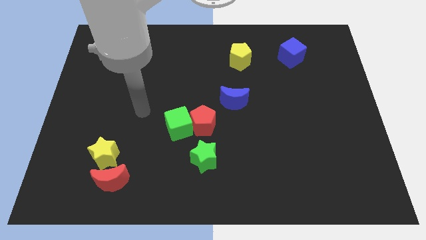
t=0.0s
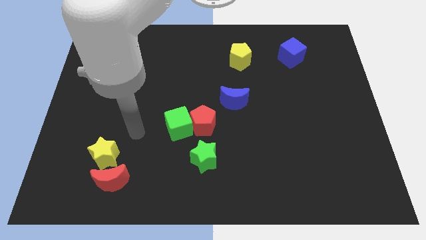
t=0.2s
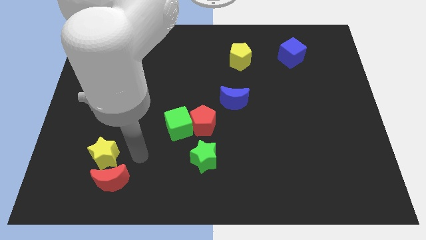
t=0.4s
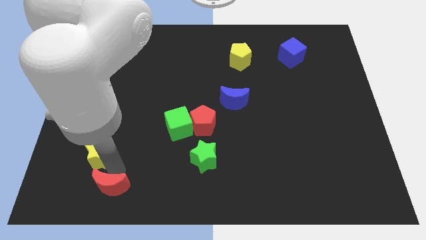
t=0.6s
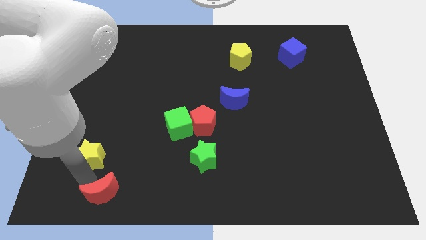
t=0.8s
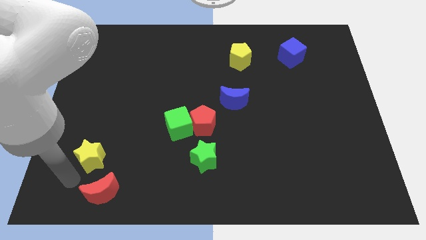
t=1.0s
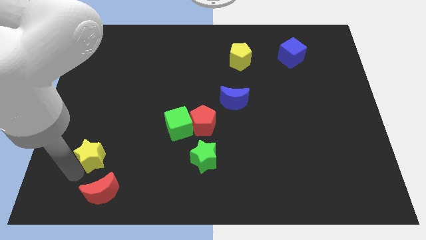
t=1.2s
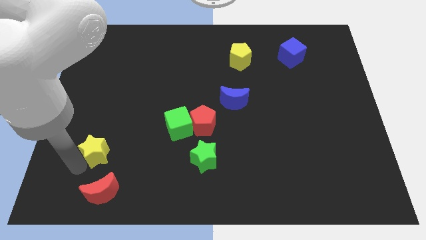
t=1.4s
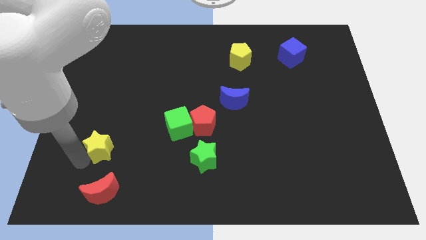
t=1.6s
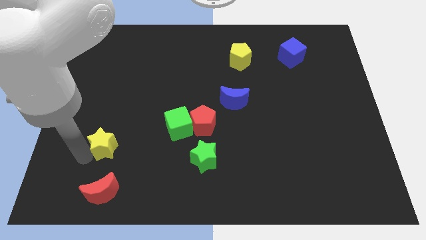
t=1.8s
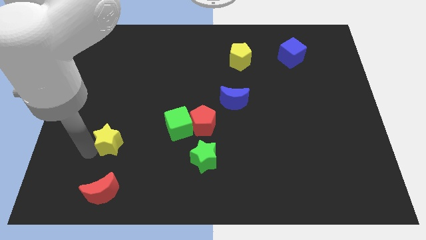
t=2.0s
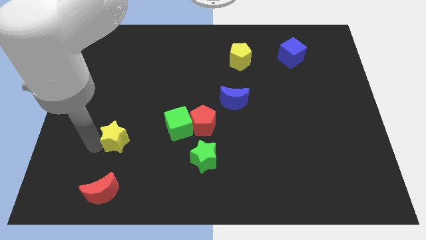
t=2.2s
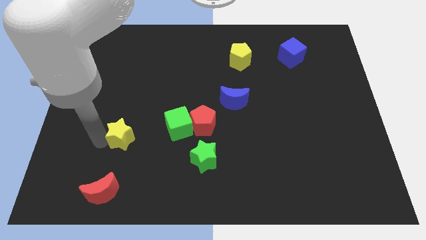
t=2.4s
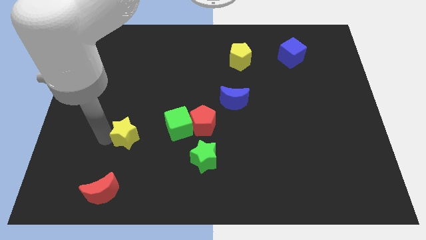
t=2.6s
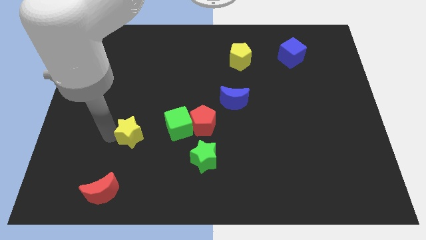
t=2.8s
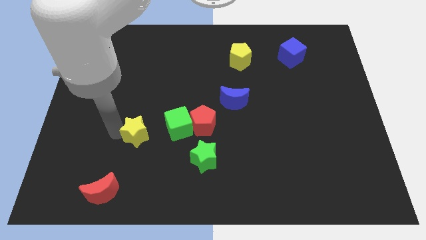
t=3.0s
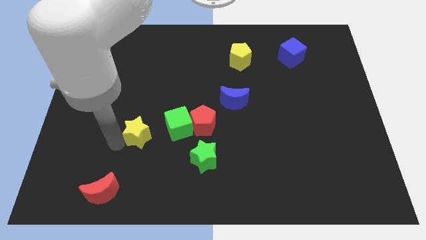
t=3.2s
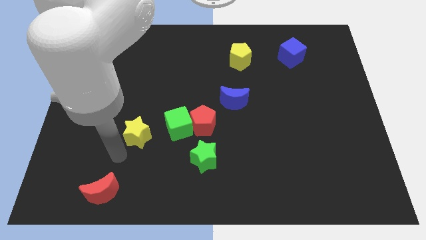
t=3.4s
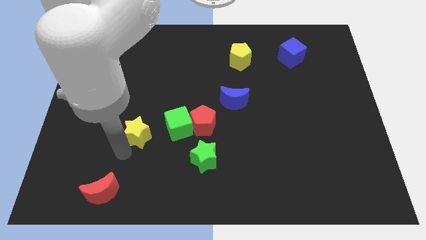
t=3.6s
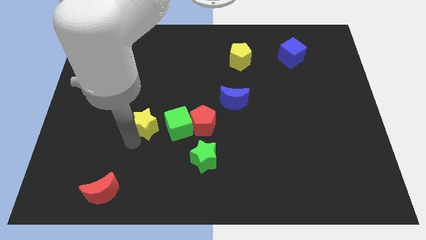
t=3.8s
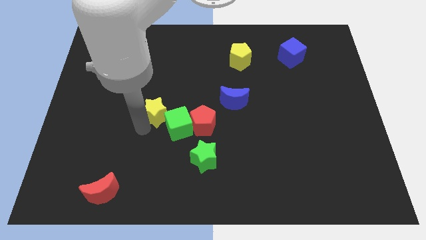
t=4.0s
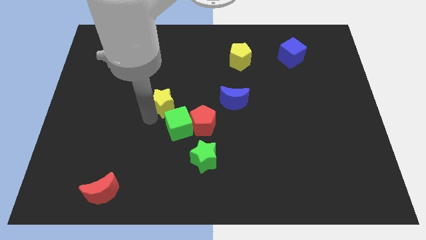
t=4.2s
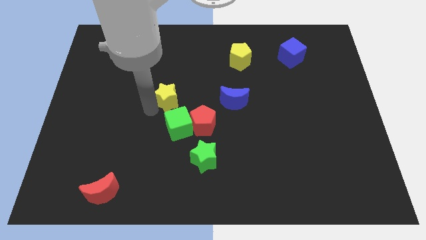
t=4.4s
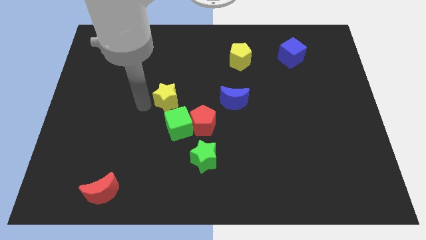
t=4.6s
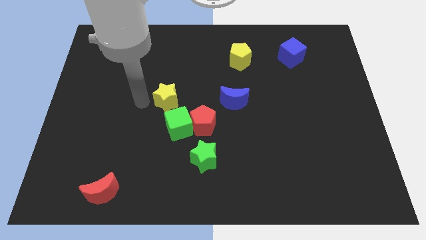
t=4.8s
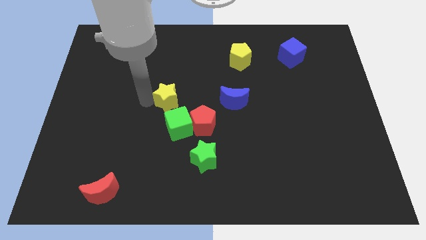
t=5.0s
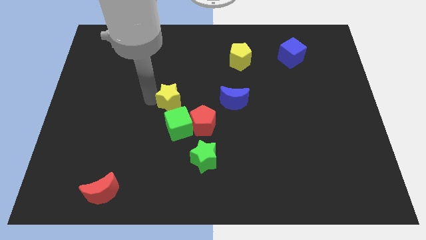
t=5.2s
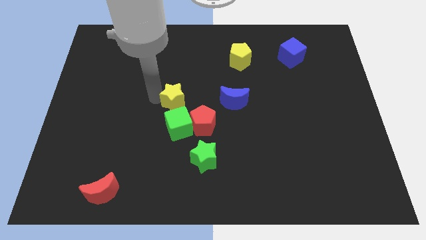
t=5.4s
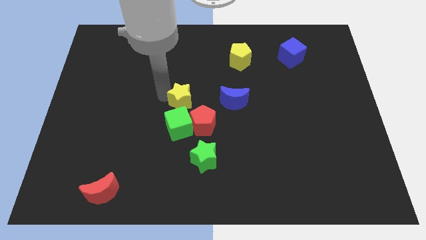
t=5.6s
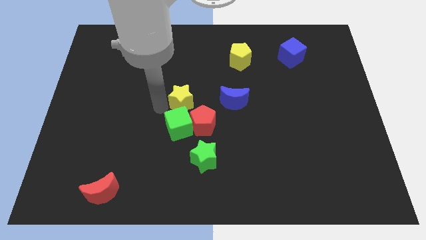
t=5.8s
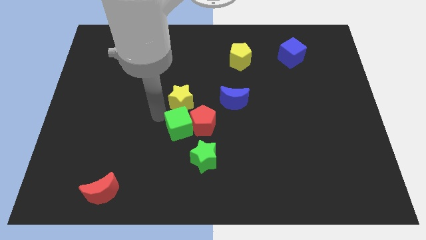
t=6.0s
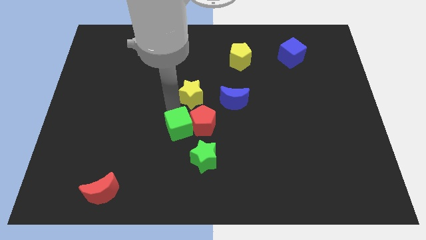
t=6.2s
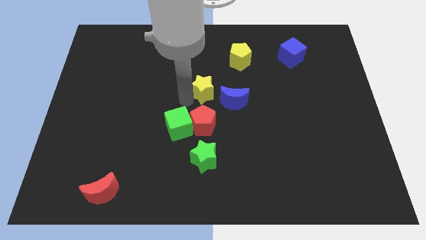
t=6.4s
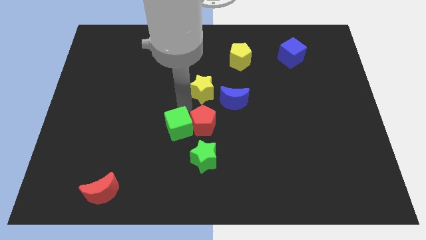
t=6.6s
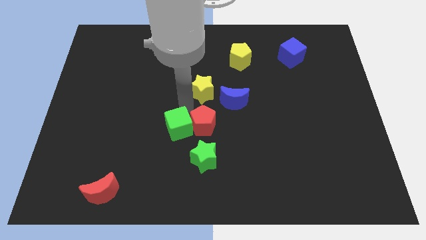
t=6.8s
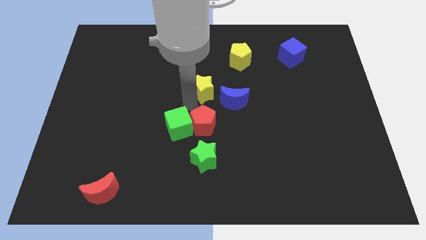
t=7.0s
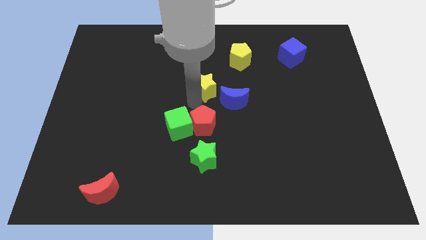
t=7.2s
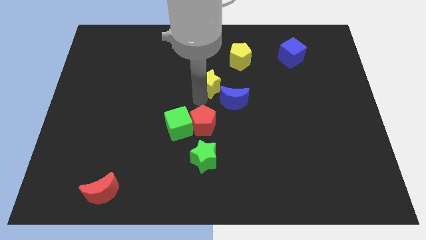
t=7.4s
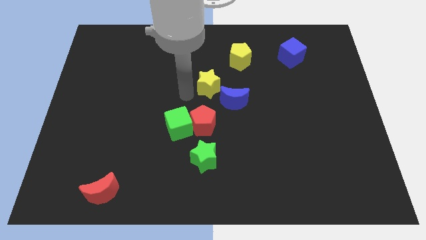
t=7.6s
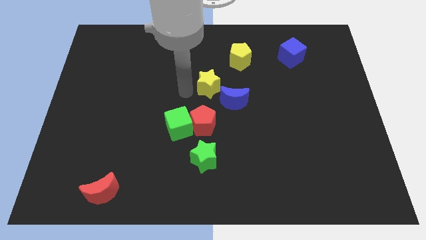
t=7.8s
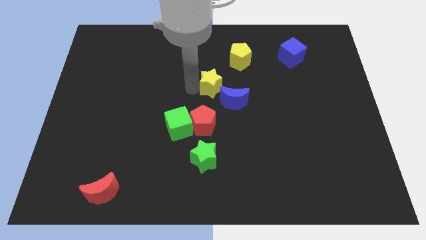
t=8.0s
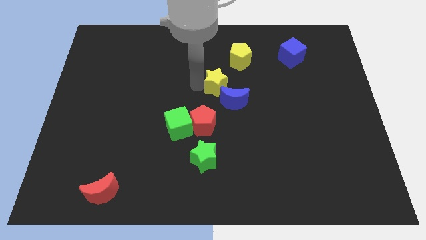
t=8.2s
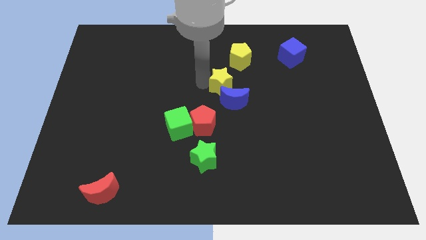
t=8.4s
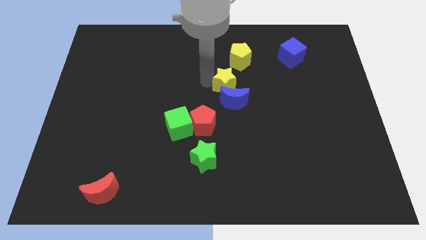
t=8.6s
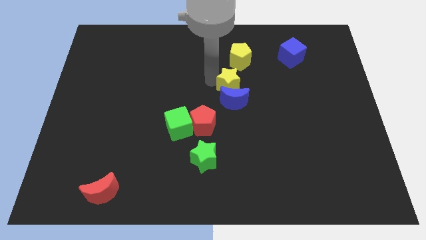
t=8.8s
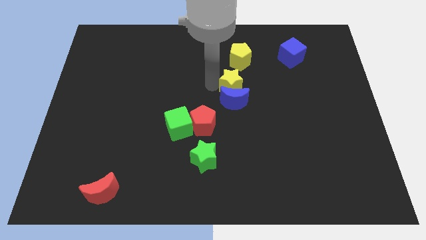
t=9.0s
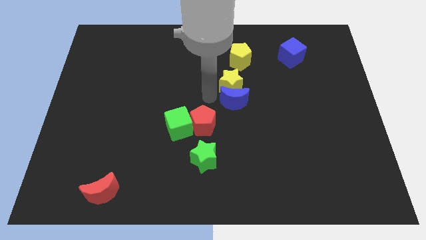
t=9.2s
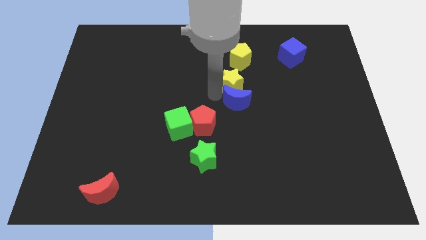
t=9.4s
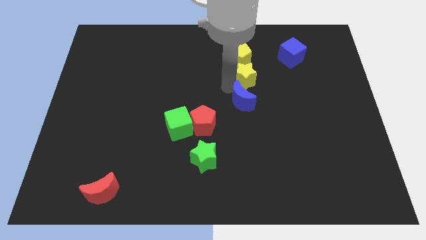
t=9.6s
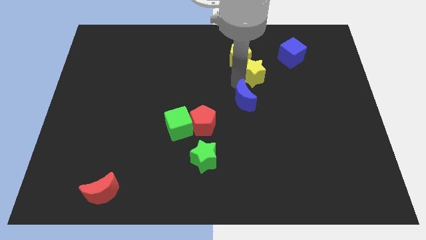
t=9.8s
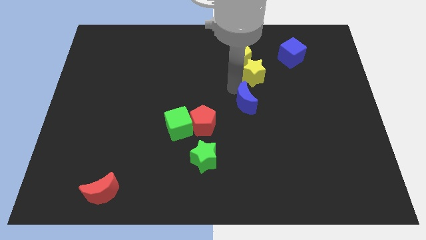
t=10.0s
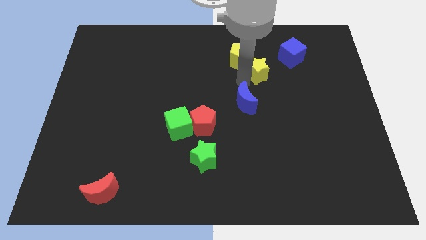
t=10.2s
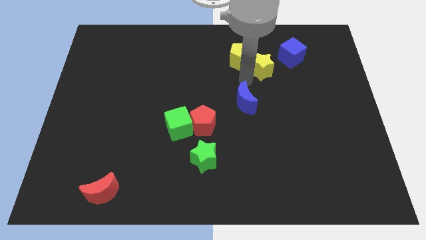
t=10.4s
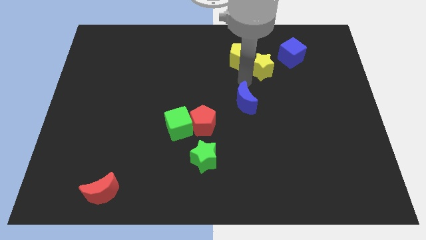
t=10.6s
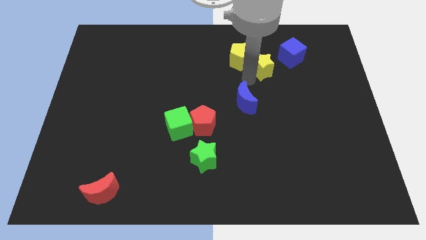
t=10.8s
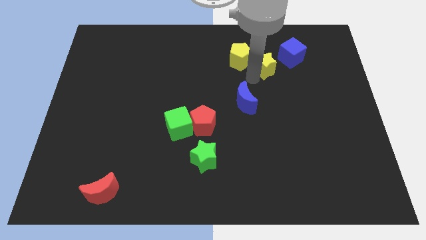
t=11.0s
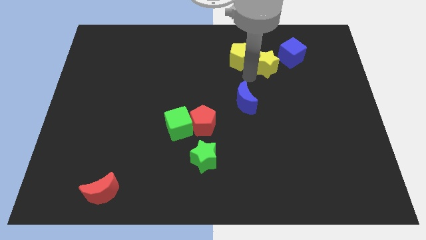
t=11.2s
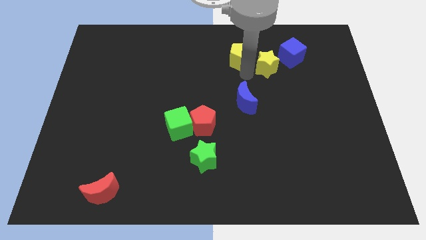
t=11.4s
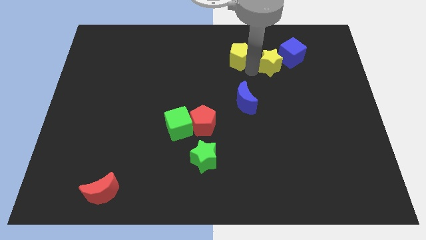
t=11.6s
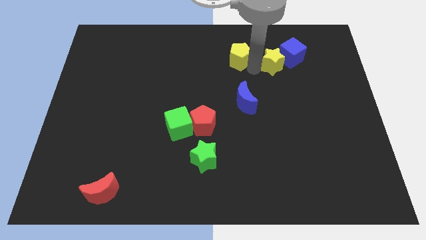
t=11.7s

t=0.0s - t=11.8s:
slide the yellow star towards the blue cube

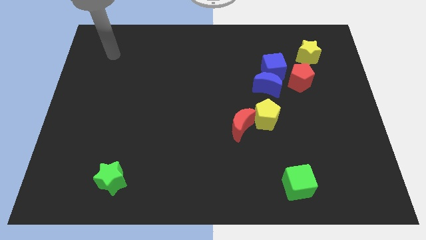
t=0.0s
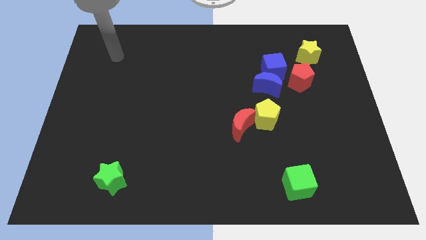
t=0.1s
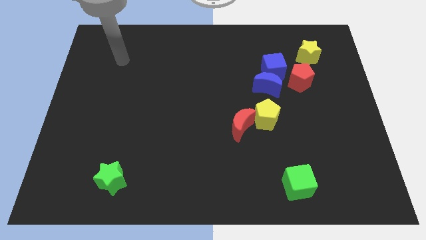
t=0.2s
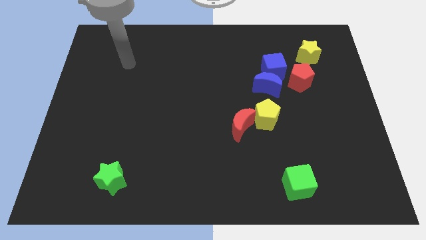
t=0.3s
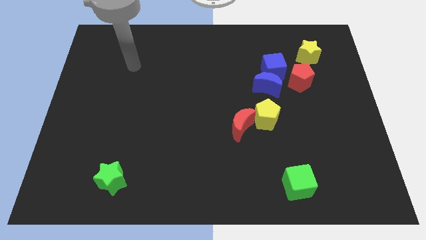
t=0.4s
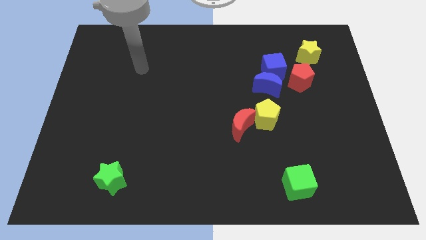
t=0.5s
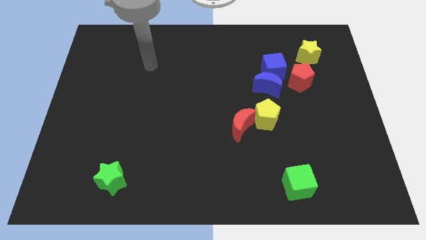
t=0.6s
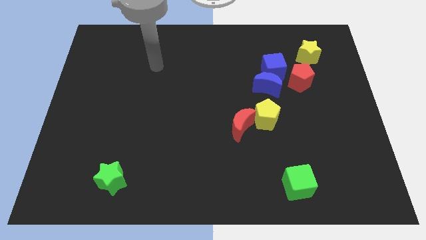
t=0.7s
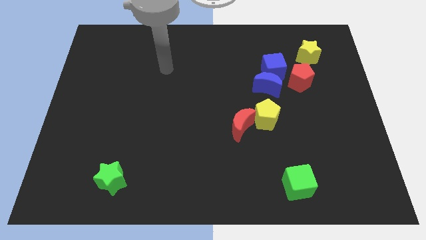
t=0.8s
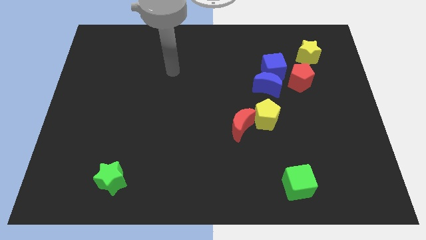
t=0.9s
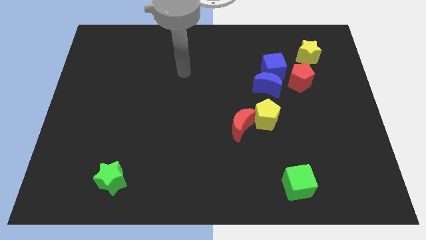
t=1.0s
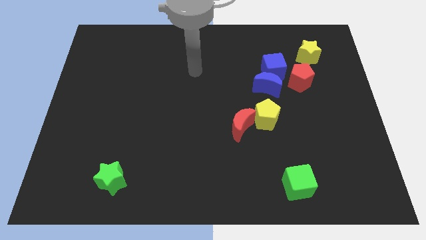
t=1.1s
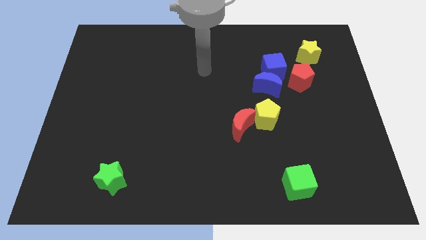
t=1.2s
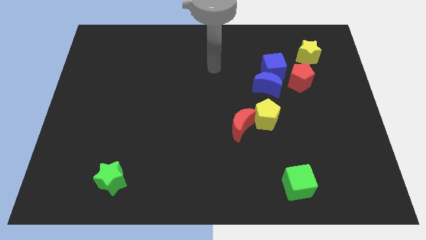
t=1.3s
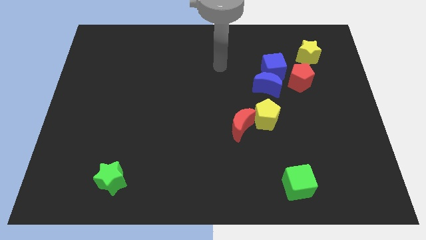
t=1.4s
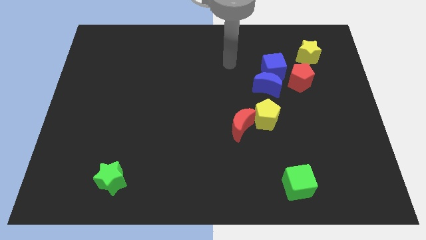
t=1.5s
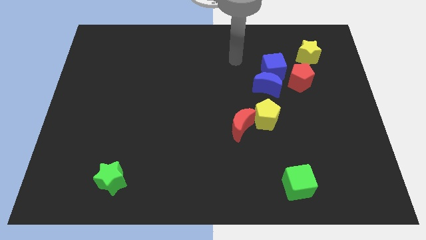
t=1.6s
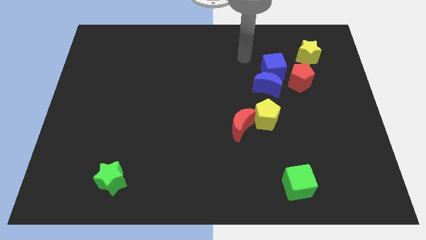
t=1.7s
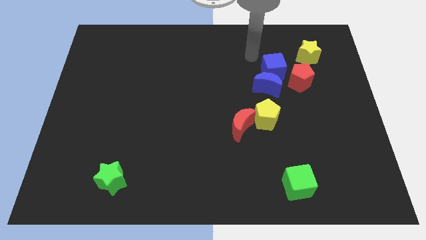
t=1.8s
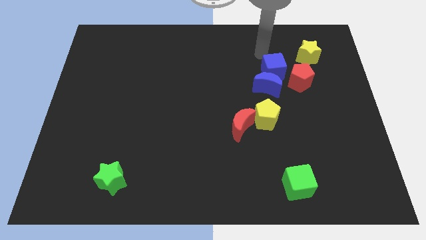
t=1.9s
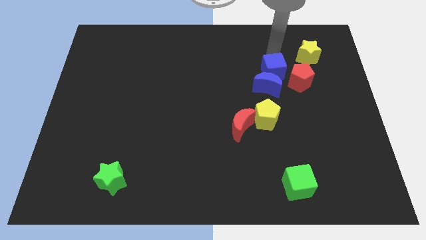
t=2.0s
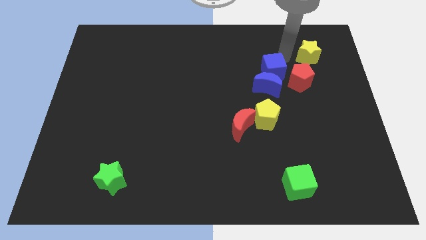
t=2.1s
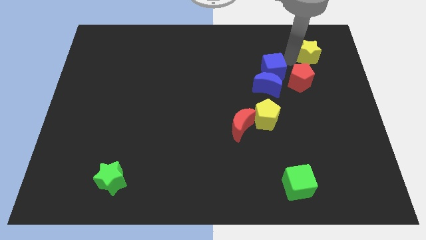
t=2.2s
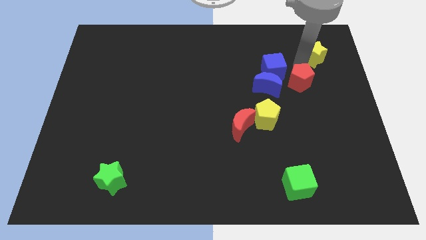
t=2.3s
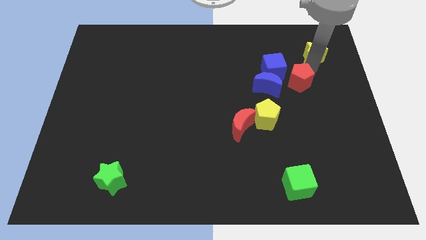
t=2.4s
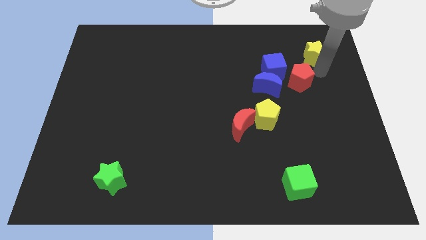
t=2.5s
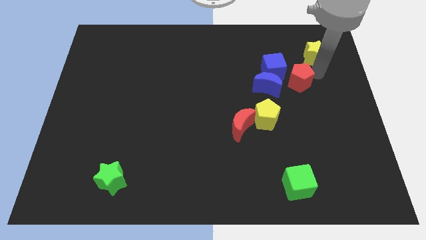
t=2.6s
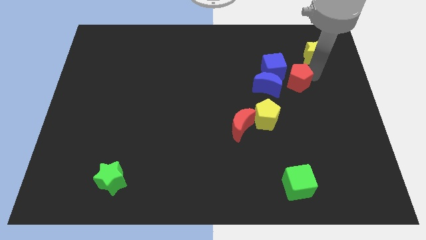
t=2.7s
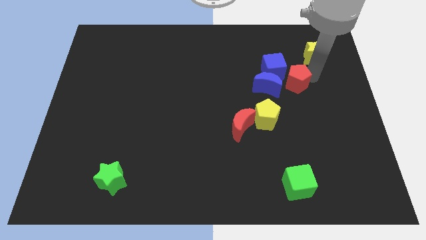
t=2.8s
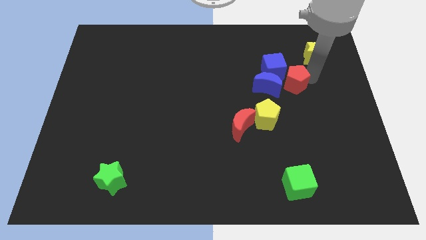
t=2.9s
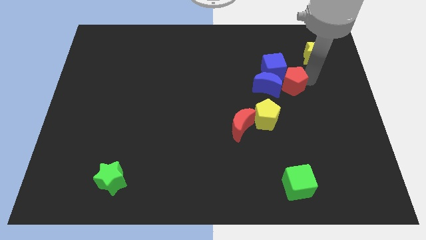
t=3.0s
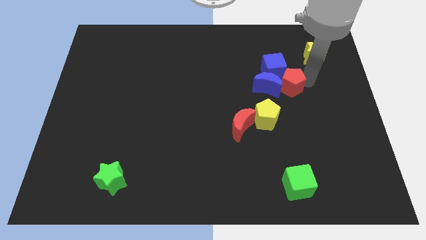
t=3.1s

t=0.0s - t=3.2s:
move the red pentagon next to the blue moon
